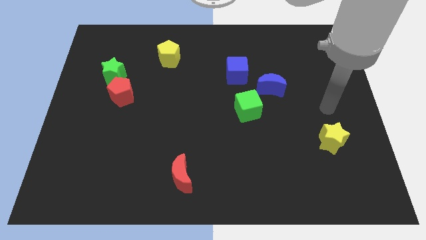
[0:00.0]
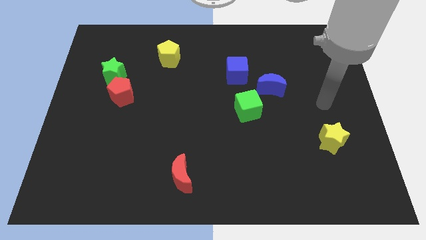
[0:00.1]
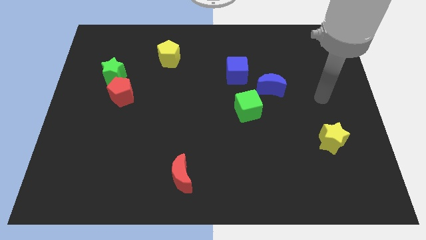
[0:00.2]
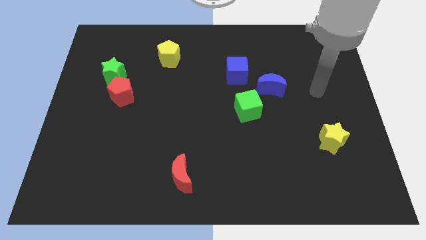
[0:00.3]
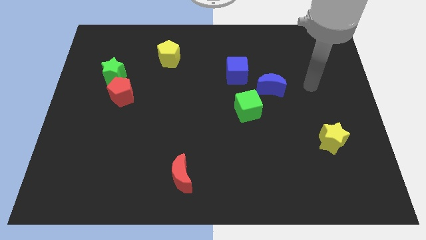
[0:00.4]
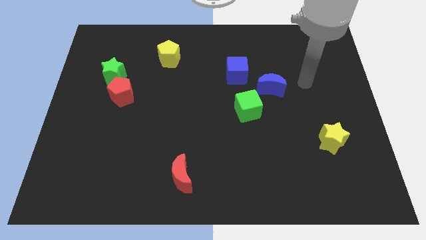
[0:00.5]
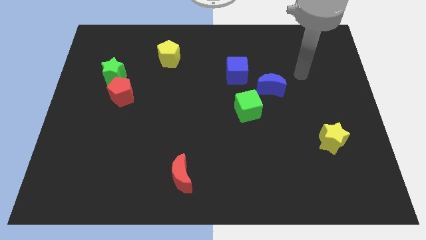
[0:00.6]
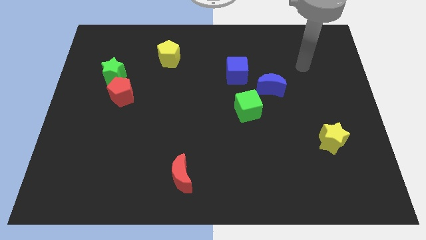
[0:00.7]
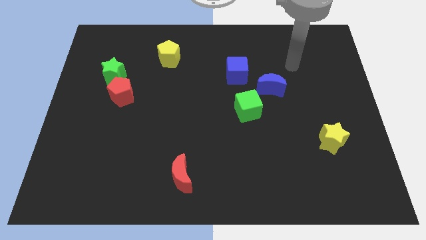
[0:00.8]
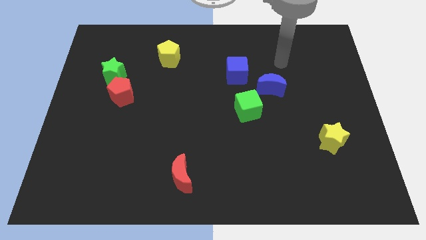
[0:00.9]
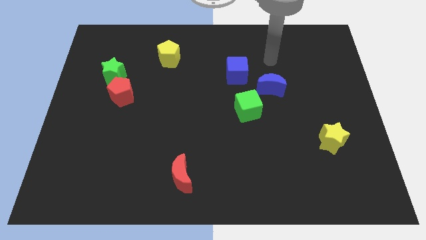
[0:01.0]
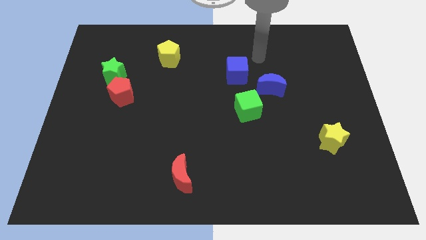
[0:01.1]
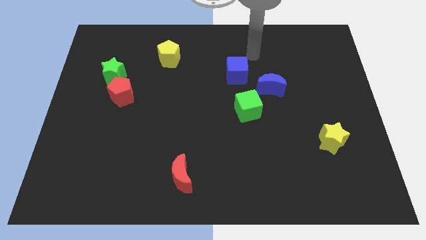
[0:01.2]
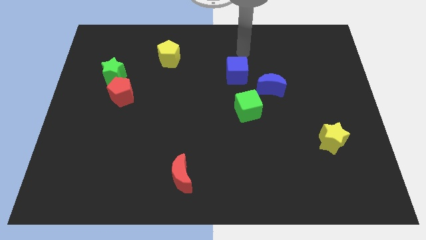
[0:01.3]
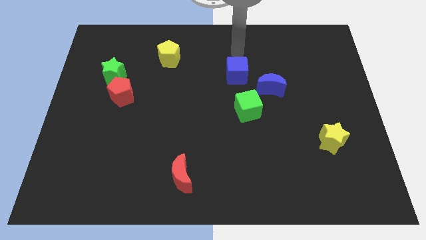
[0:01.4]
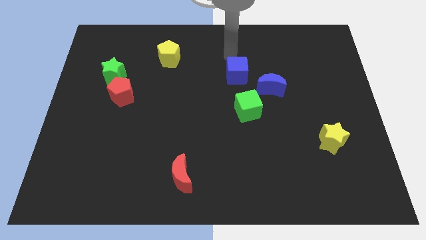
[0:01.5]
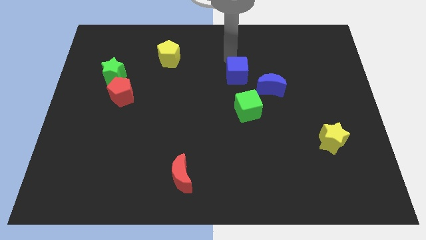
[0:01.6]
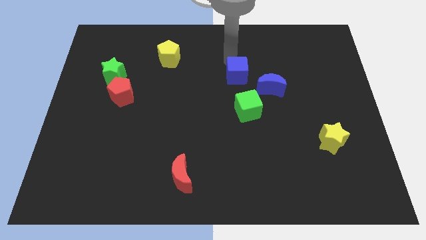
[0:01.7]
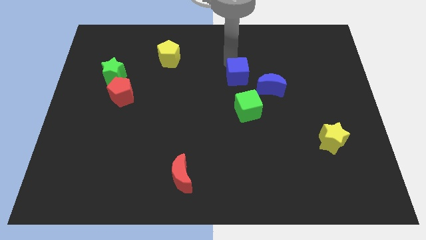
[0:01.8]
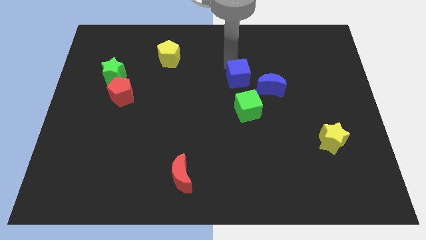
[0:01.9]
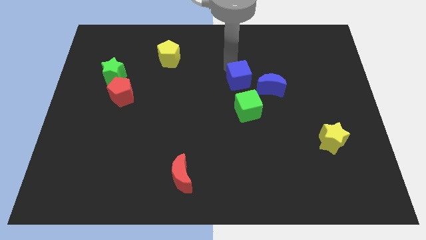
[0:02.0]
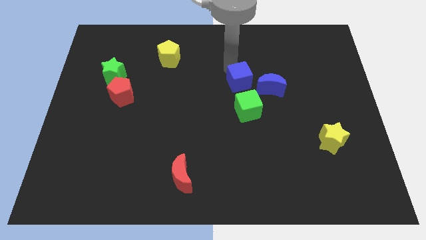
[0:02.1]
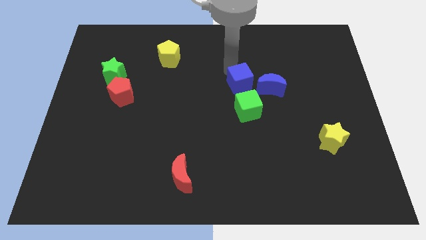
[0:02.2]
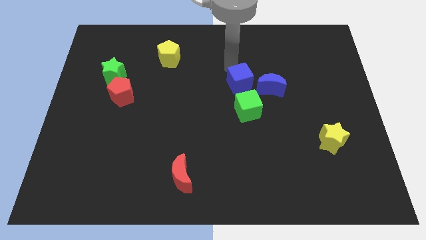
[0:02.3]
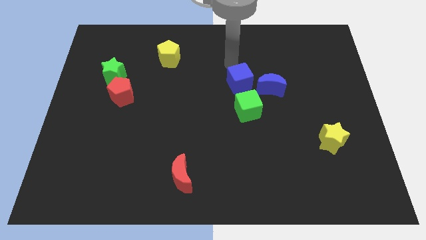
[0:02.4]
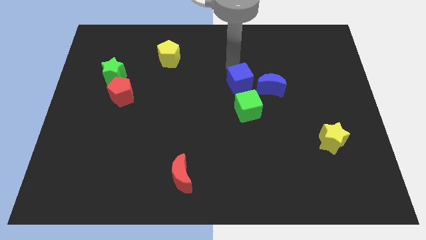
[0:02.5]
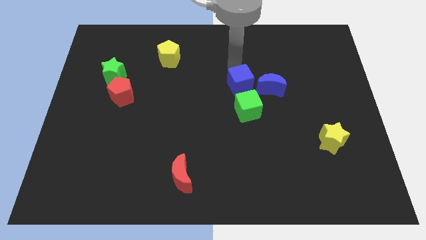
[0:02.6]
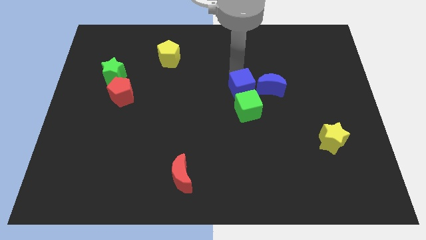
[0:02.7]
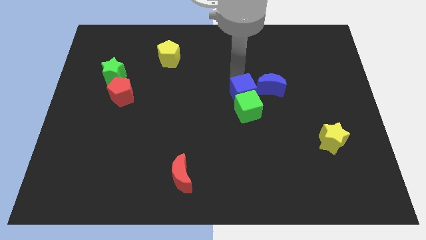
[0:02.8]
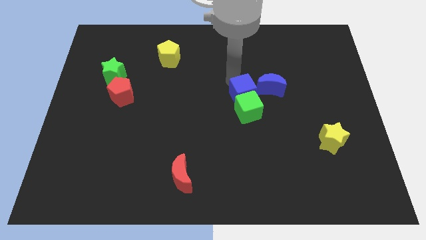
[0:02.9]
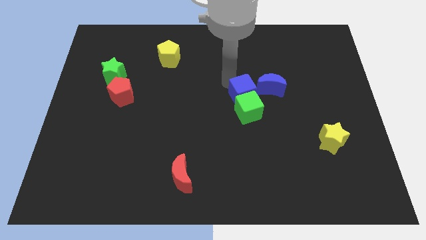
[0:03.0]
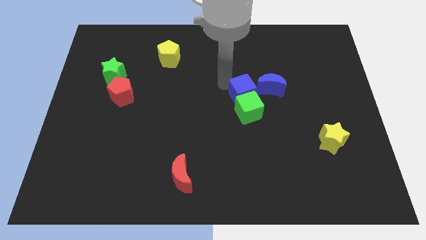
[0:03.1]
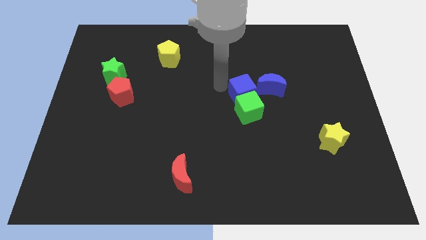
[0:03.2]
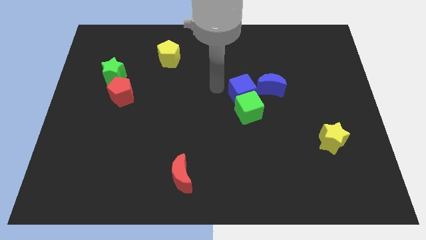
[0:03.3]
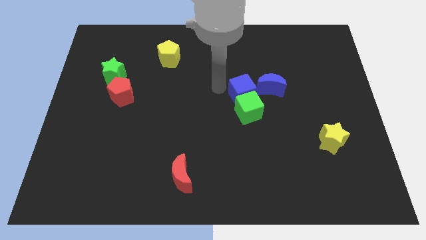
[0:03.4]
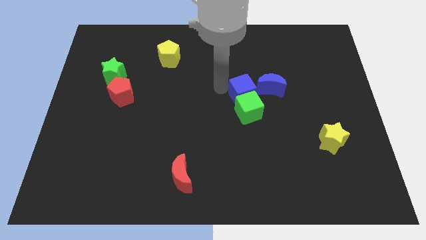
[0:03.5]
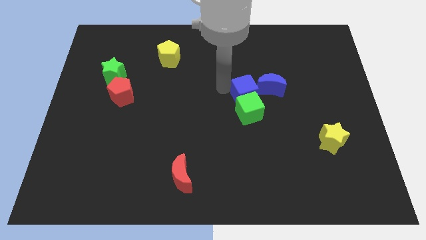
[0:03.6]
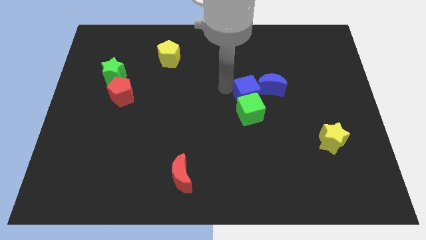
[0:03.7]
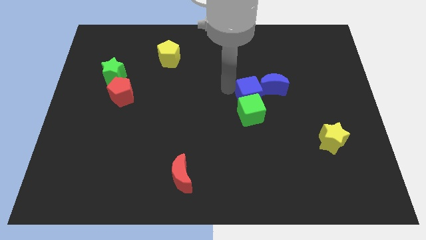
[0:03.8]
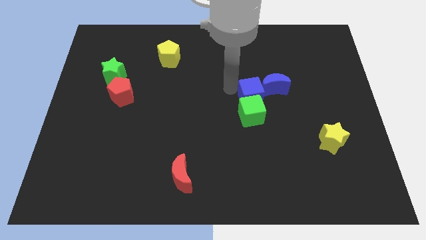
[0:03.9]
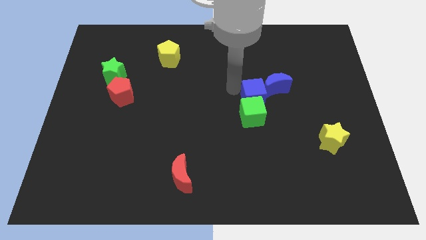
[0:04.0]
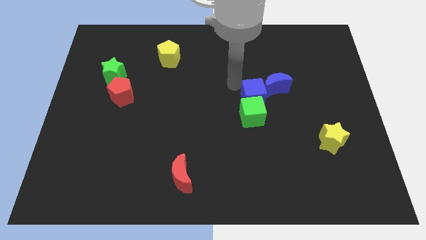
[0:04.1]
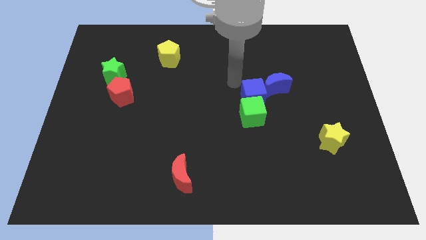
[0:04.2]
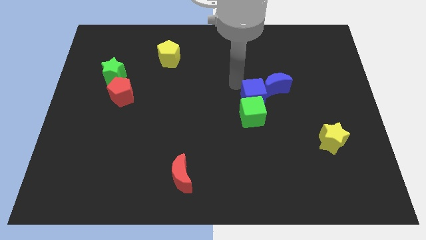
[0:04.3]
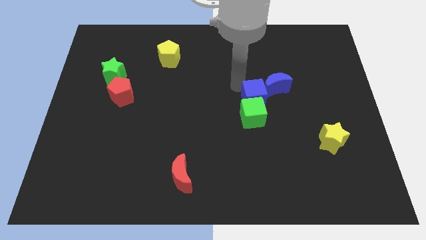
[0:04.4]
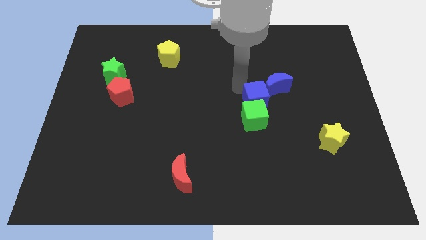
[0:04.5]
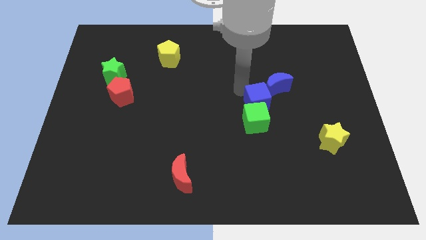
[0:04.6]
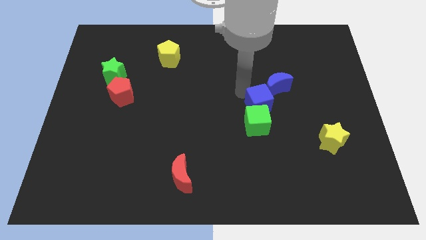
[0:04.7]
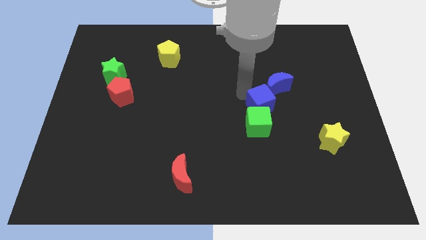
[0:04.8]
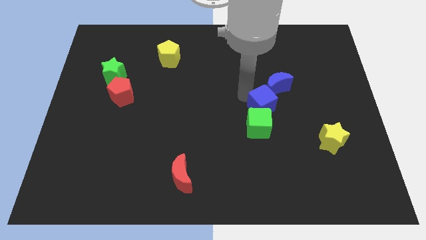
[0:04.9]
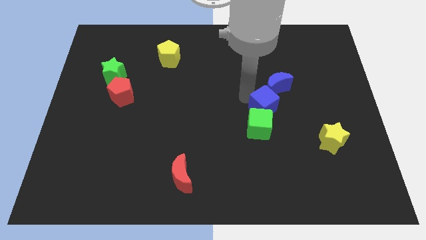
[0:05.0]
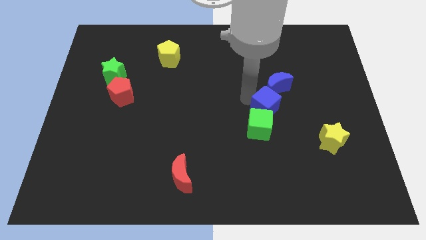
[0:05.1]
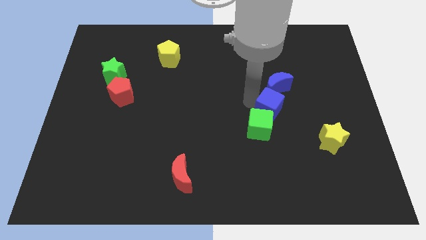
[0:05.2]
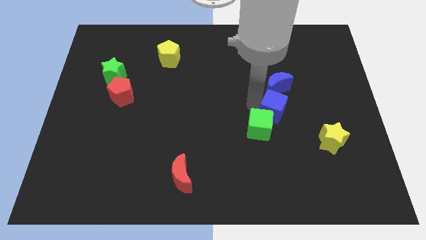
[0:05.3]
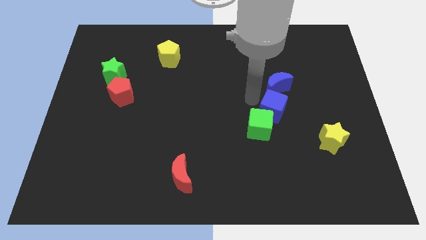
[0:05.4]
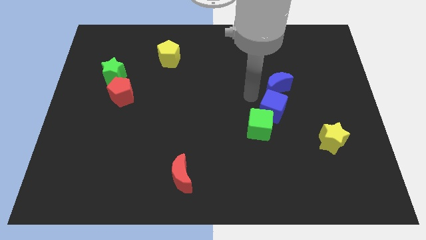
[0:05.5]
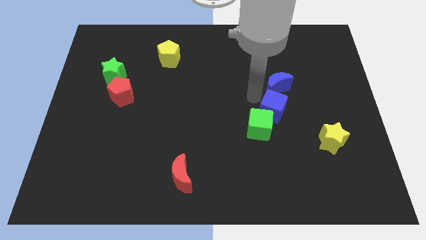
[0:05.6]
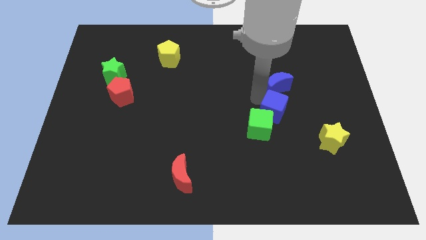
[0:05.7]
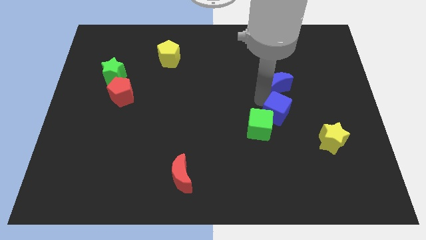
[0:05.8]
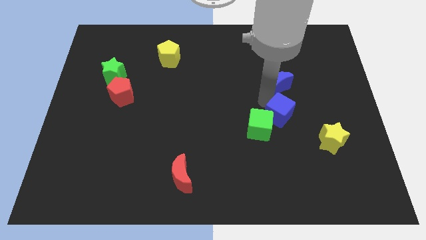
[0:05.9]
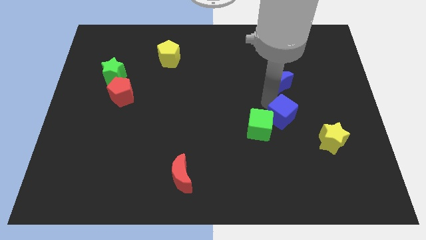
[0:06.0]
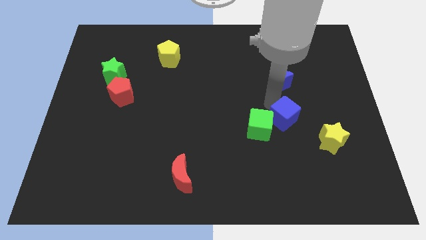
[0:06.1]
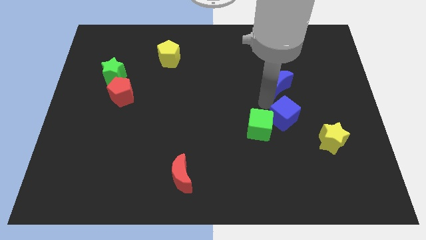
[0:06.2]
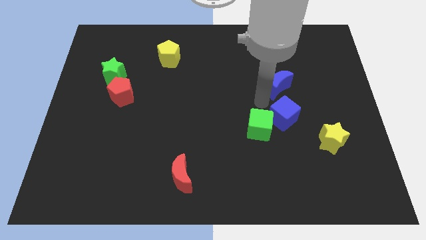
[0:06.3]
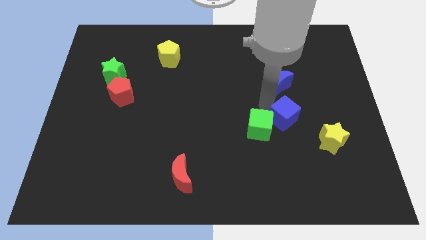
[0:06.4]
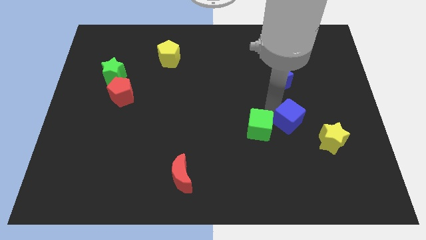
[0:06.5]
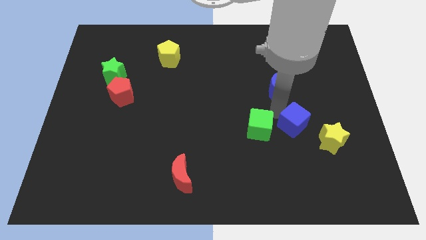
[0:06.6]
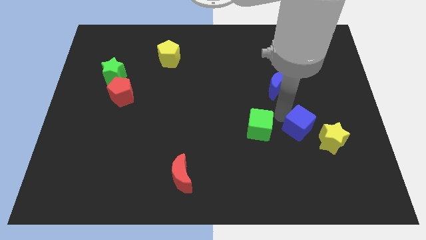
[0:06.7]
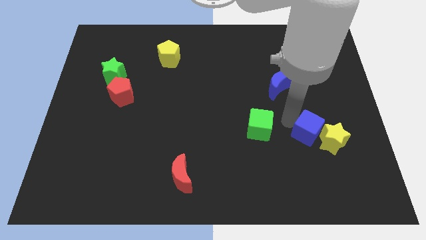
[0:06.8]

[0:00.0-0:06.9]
move the blue cube close to the yellow star

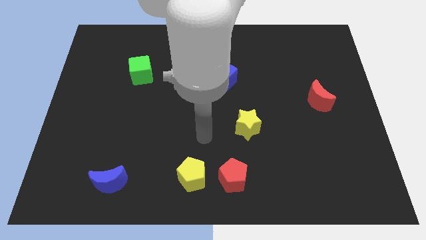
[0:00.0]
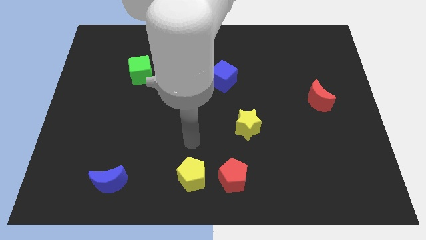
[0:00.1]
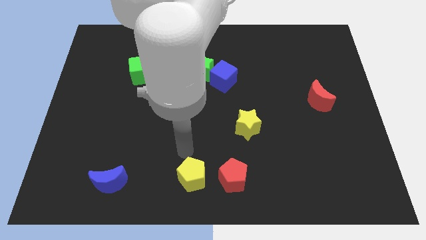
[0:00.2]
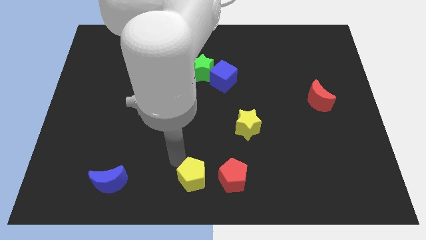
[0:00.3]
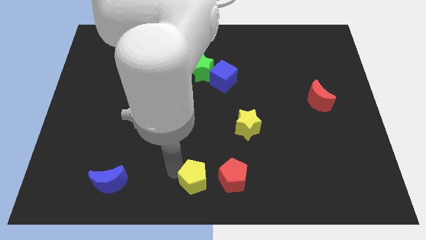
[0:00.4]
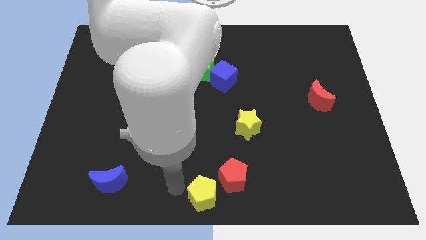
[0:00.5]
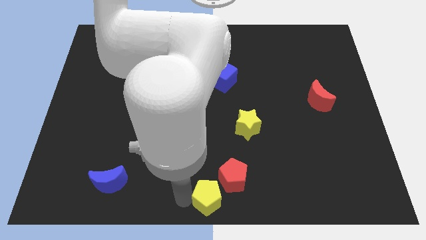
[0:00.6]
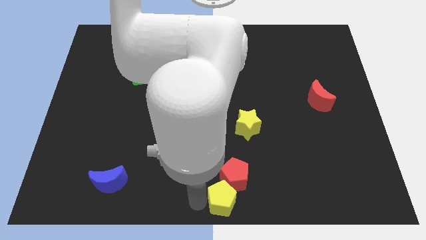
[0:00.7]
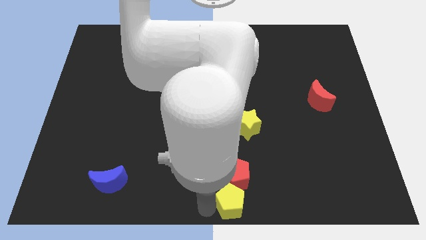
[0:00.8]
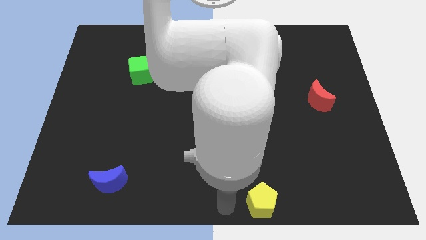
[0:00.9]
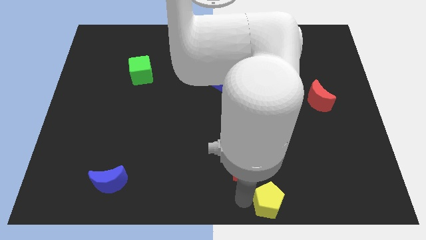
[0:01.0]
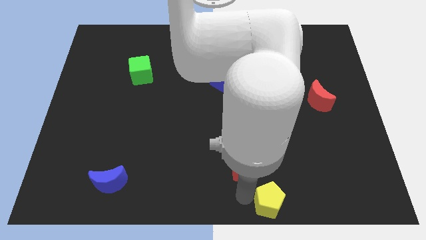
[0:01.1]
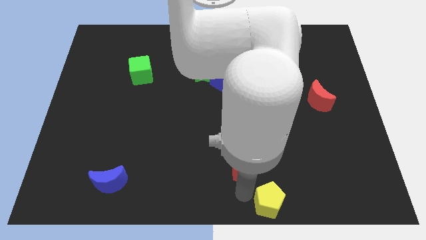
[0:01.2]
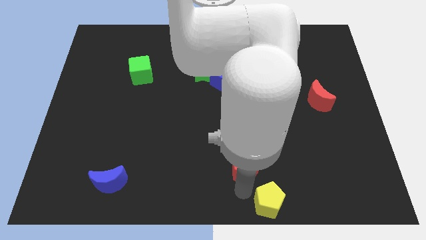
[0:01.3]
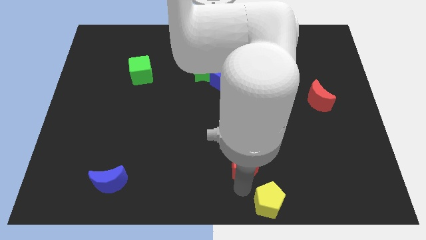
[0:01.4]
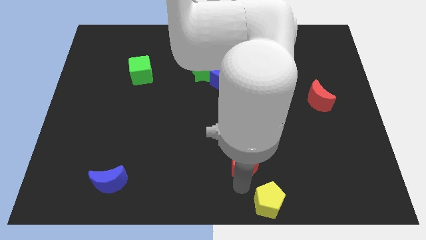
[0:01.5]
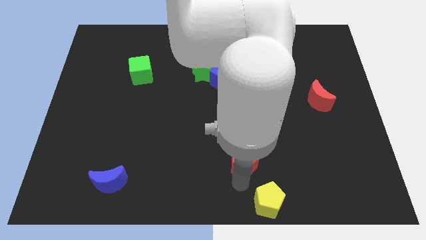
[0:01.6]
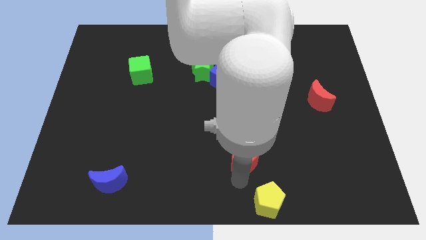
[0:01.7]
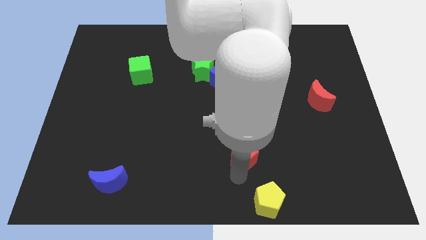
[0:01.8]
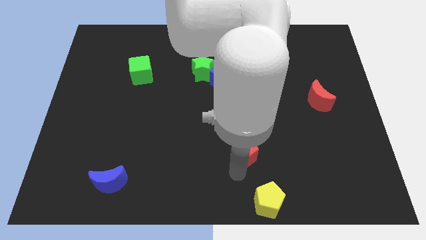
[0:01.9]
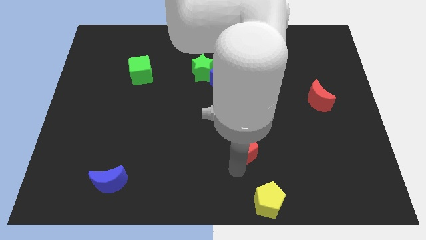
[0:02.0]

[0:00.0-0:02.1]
push the red pentagon towards the yellow star
